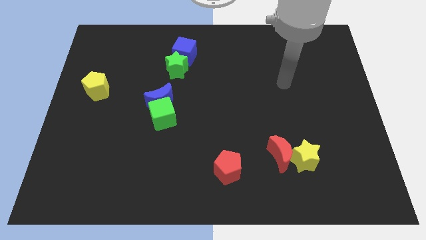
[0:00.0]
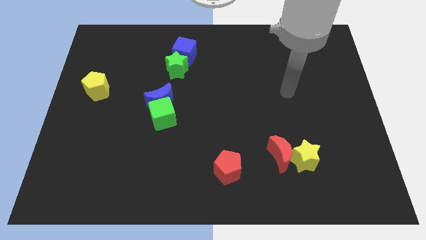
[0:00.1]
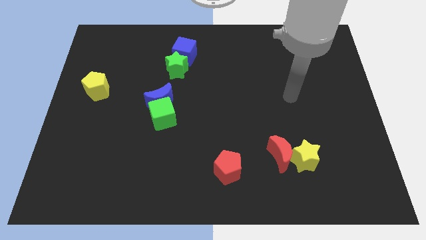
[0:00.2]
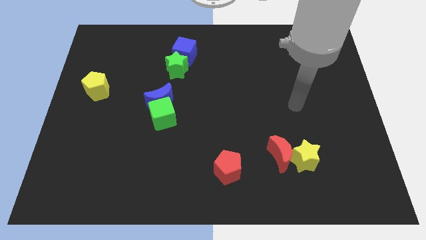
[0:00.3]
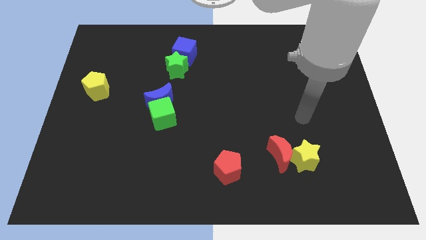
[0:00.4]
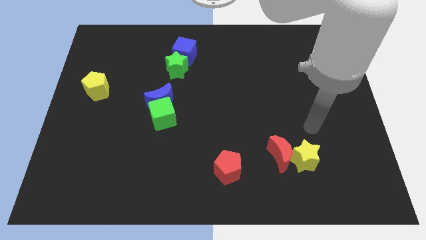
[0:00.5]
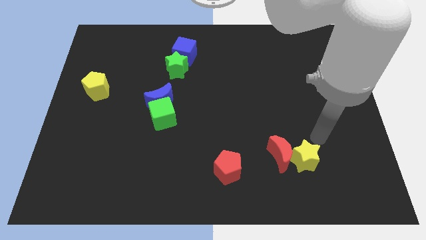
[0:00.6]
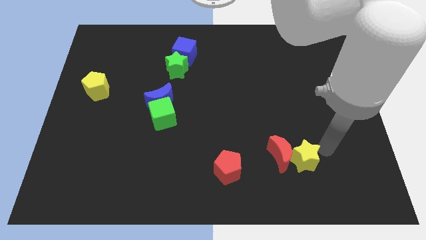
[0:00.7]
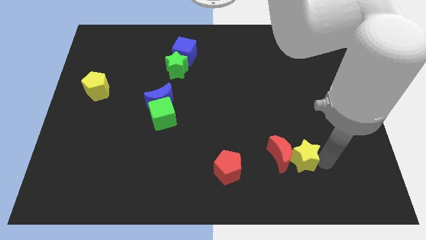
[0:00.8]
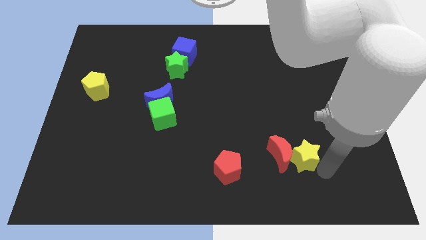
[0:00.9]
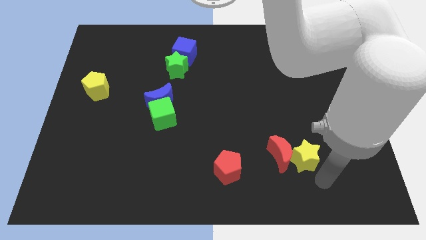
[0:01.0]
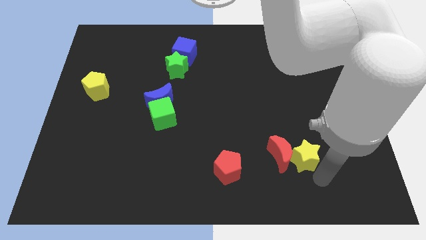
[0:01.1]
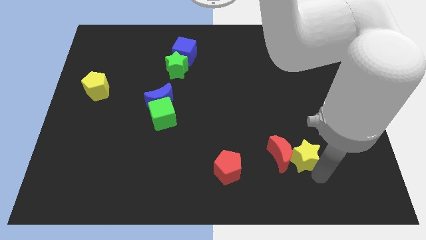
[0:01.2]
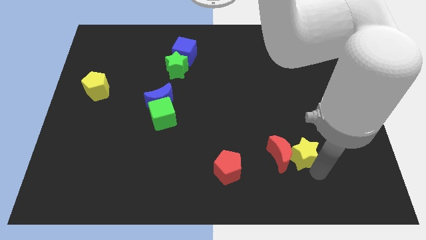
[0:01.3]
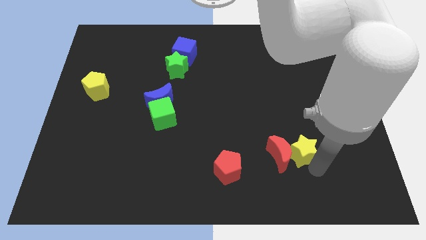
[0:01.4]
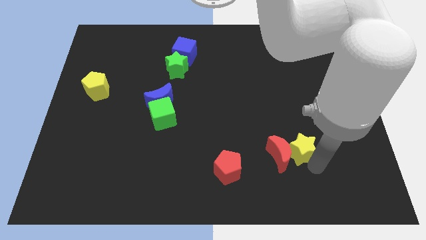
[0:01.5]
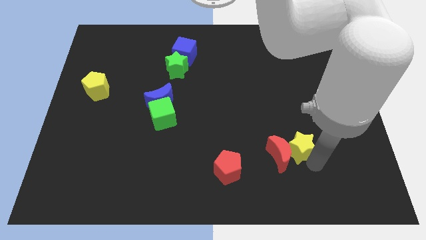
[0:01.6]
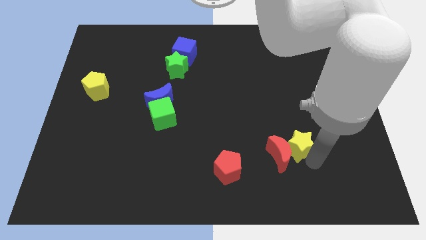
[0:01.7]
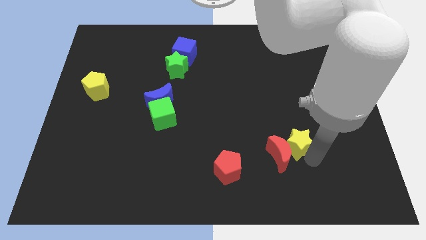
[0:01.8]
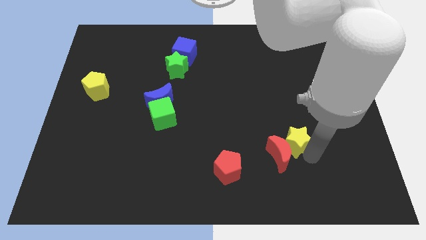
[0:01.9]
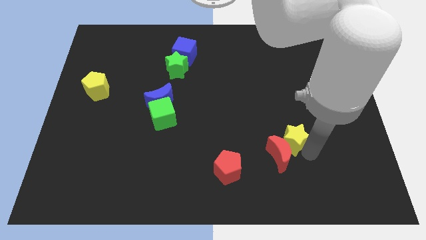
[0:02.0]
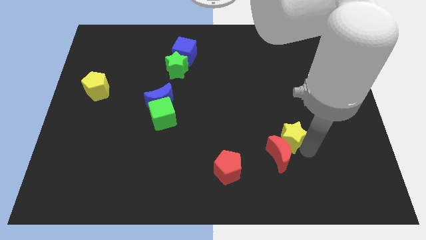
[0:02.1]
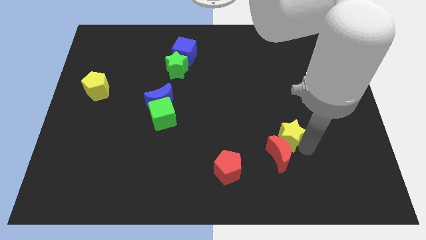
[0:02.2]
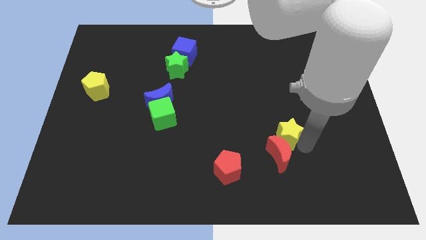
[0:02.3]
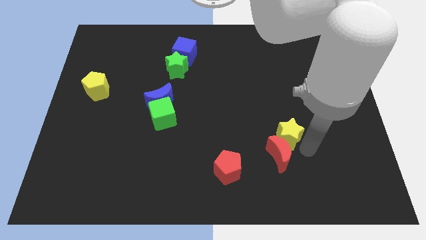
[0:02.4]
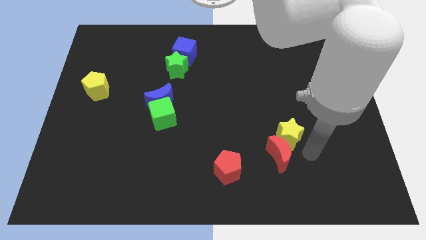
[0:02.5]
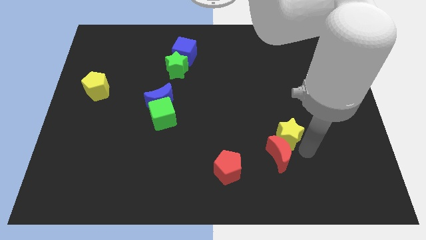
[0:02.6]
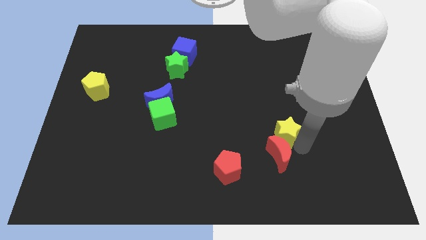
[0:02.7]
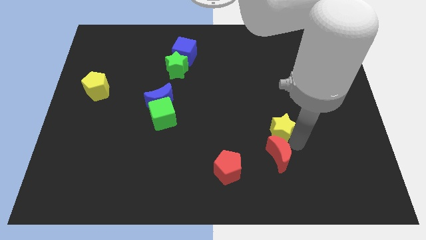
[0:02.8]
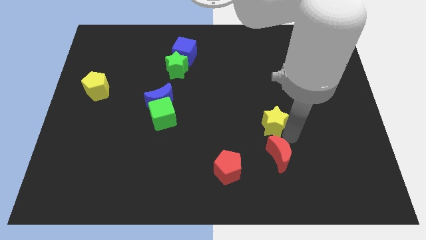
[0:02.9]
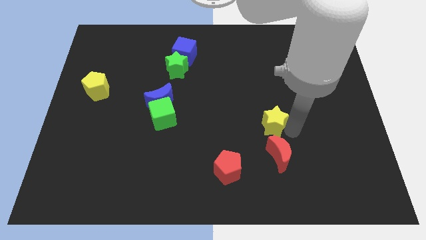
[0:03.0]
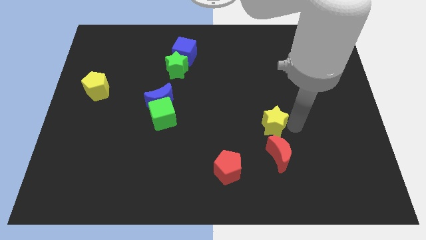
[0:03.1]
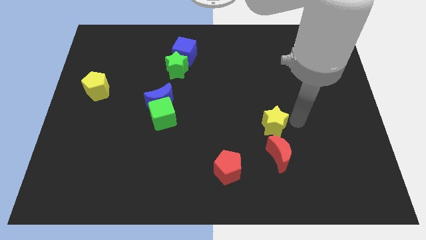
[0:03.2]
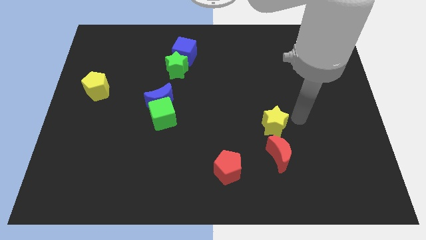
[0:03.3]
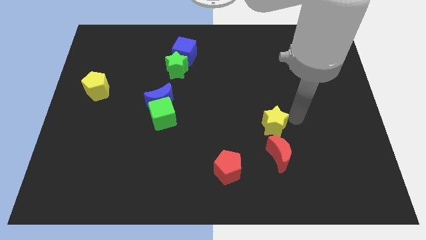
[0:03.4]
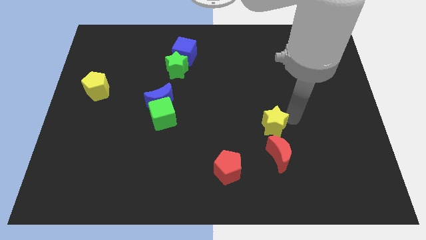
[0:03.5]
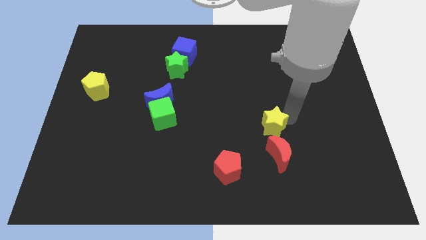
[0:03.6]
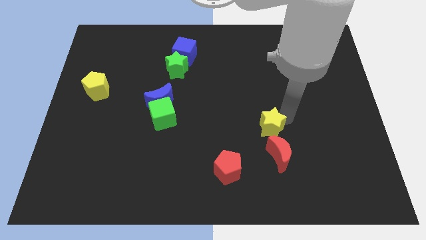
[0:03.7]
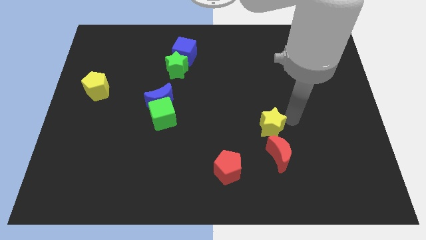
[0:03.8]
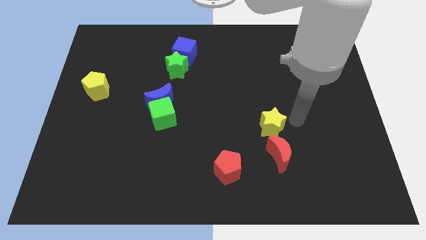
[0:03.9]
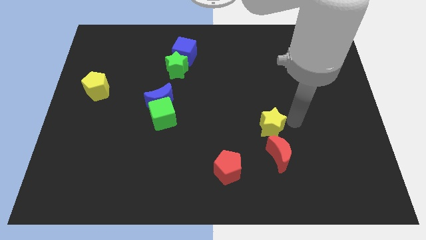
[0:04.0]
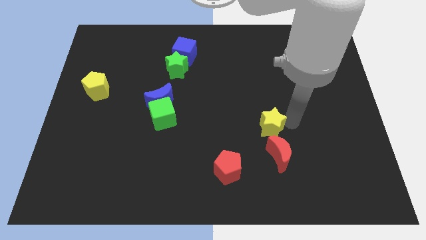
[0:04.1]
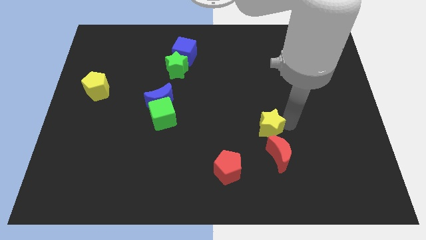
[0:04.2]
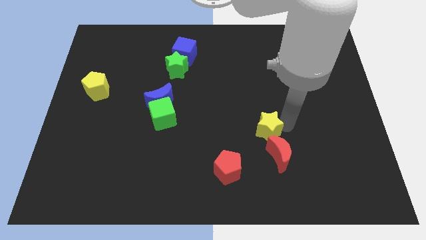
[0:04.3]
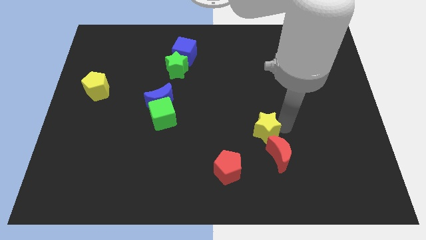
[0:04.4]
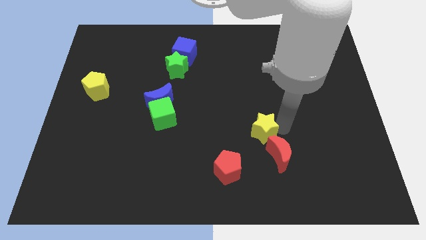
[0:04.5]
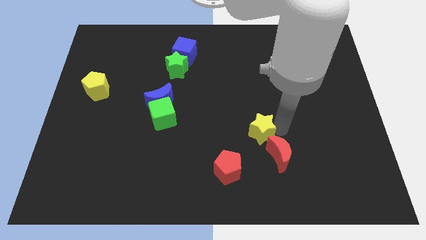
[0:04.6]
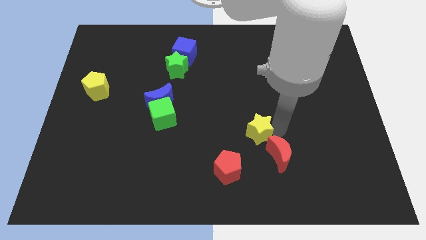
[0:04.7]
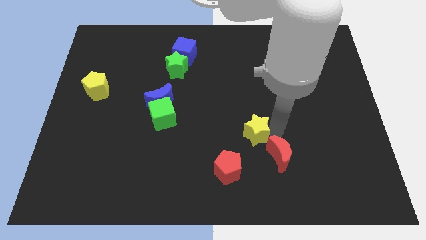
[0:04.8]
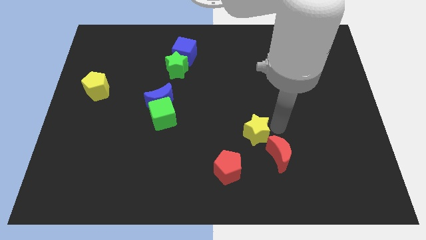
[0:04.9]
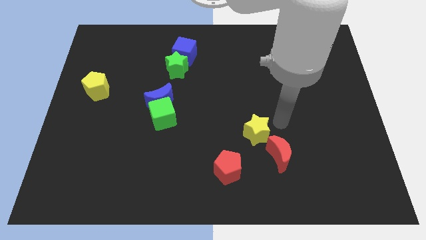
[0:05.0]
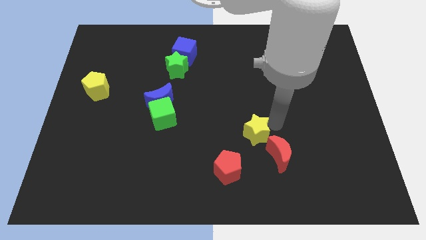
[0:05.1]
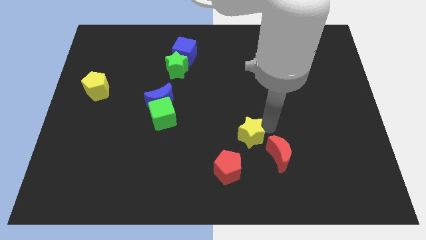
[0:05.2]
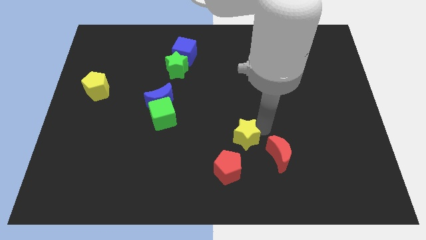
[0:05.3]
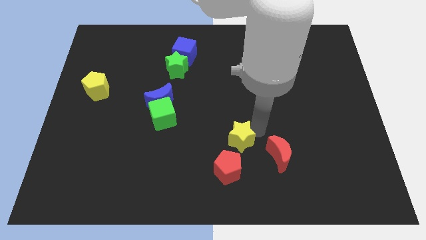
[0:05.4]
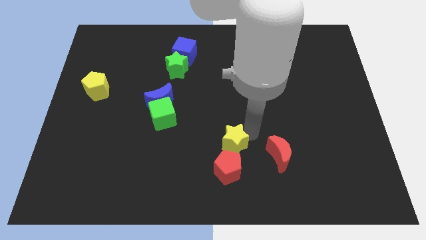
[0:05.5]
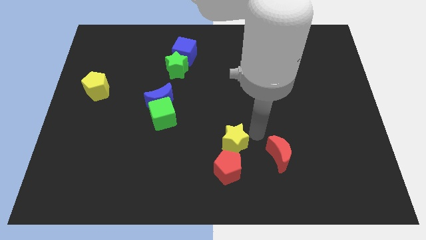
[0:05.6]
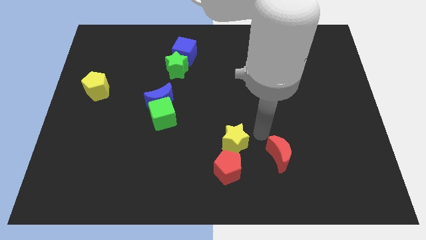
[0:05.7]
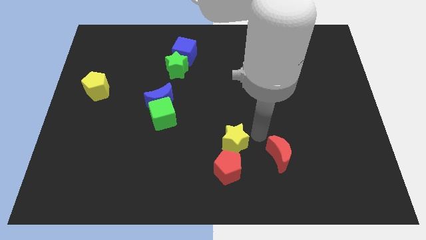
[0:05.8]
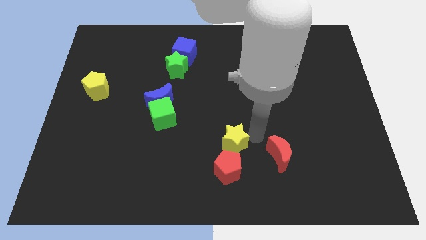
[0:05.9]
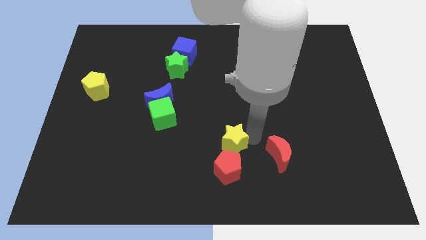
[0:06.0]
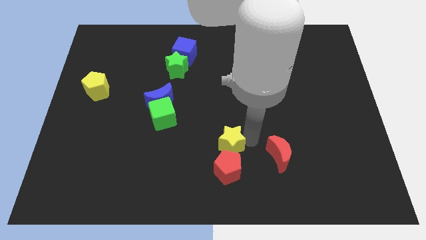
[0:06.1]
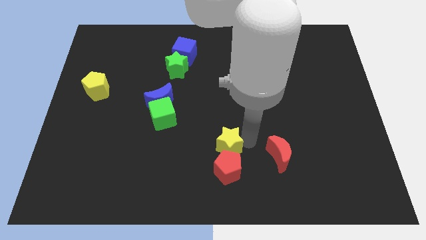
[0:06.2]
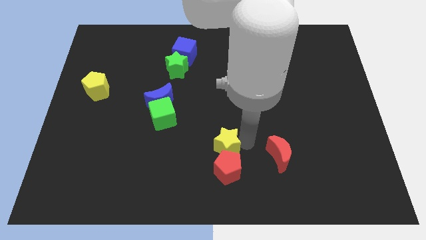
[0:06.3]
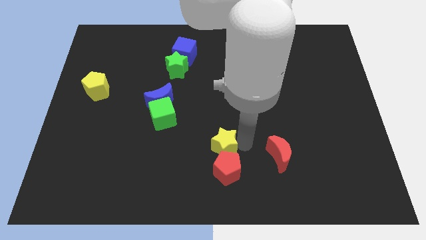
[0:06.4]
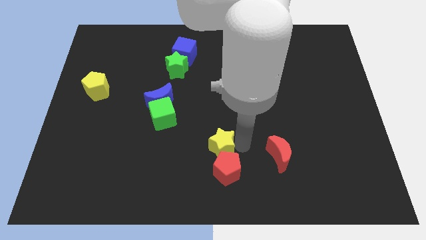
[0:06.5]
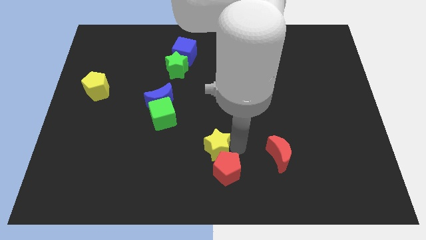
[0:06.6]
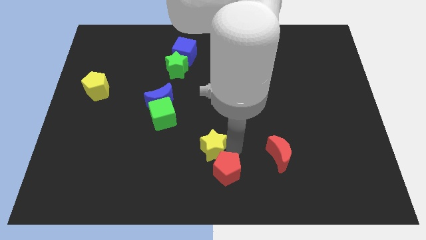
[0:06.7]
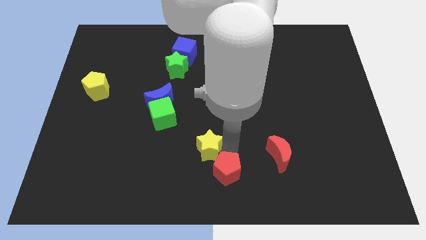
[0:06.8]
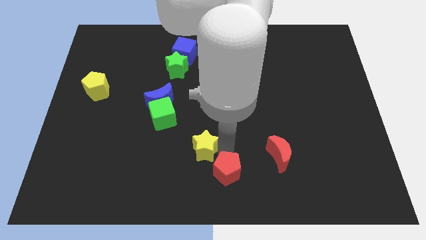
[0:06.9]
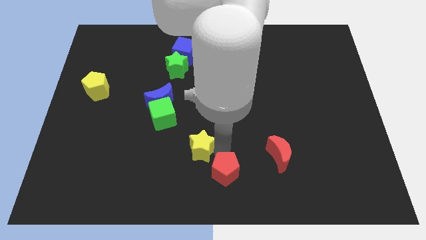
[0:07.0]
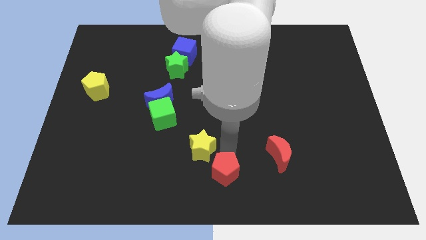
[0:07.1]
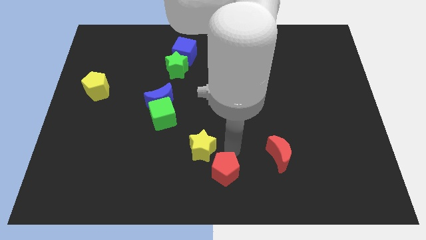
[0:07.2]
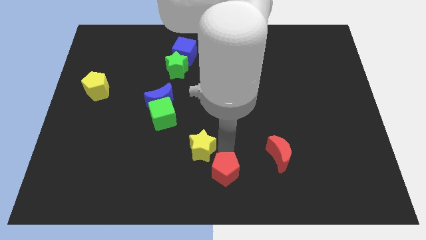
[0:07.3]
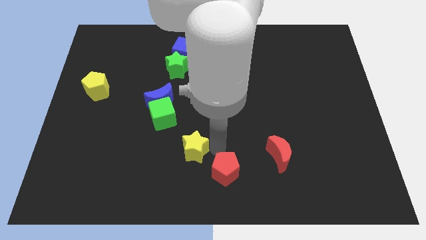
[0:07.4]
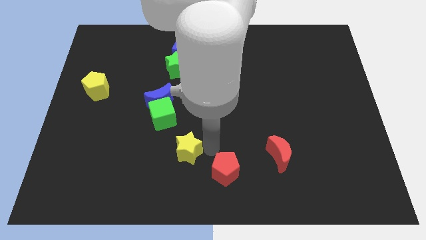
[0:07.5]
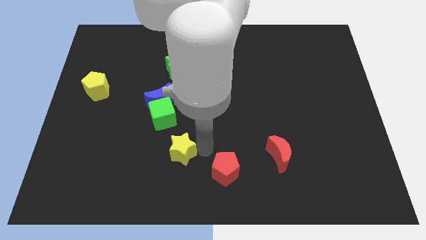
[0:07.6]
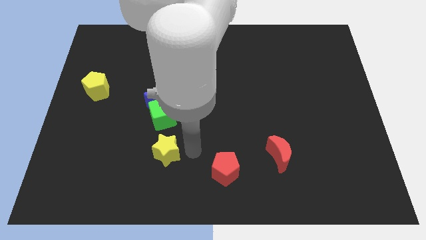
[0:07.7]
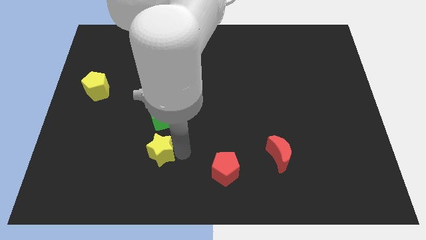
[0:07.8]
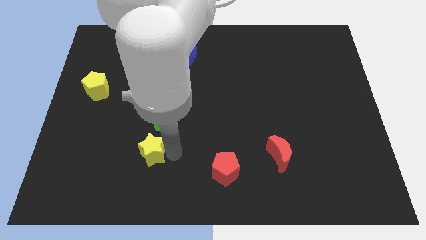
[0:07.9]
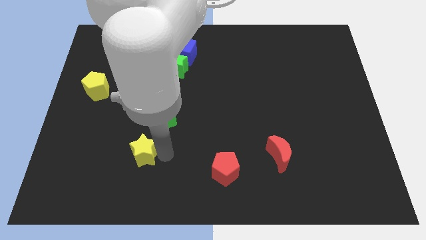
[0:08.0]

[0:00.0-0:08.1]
move the yellow star to the bottom left side of the green cube
